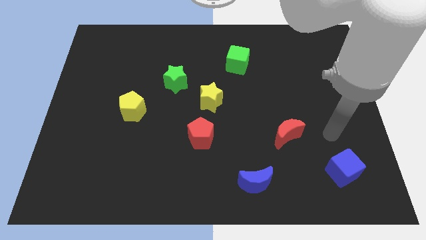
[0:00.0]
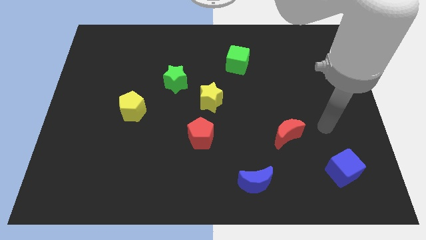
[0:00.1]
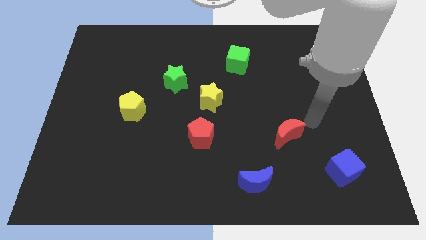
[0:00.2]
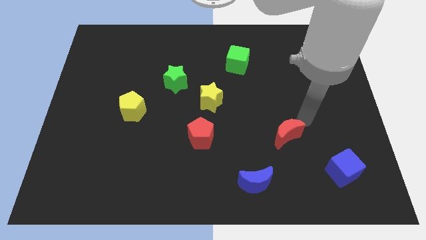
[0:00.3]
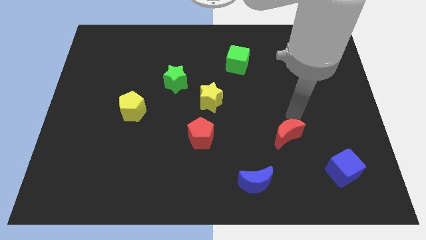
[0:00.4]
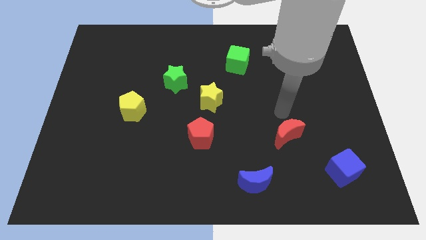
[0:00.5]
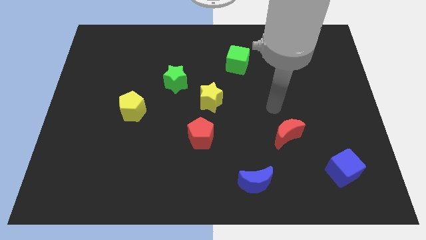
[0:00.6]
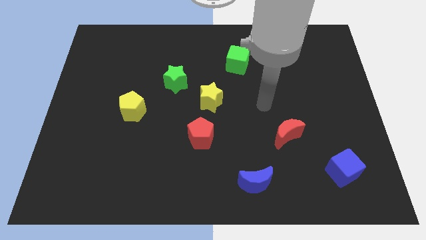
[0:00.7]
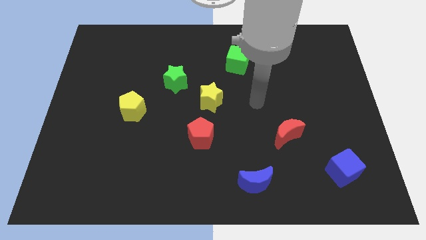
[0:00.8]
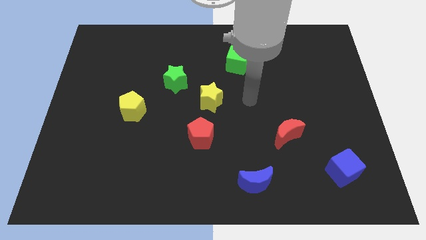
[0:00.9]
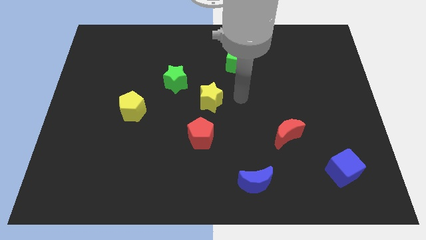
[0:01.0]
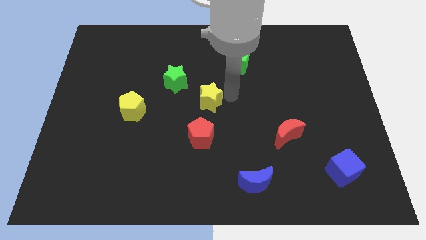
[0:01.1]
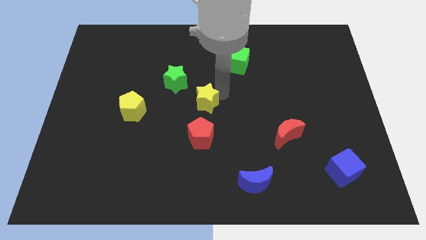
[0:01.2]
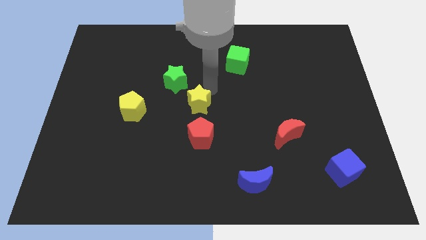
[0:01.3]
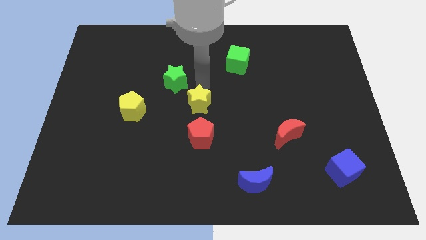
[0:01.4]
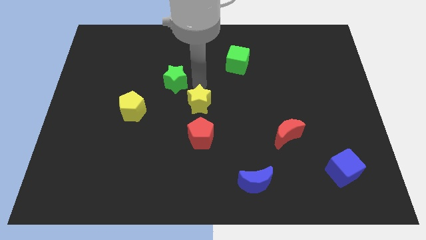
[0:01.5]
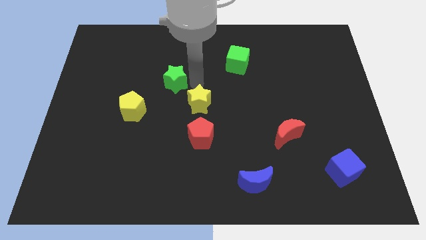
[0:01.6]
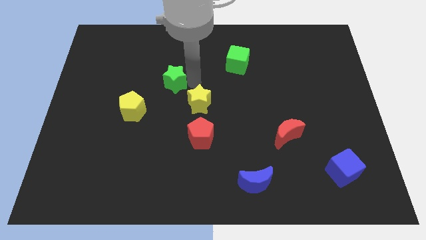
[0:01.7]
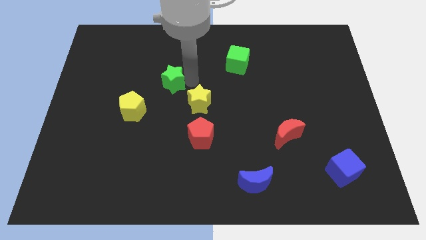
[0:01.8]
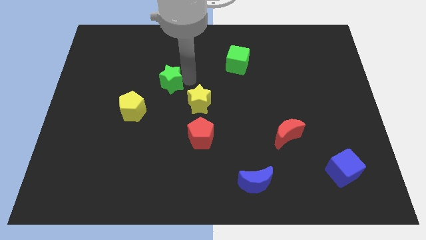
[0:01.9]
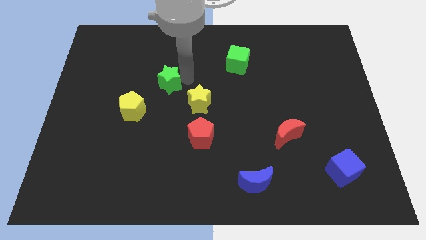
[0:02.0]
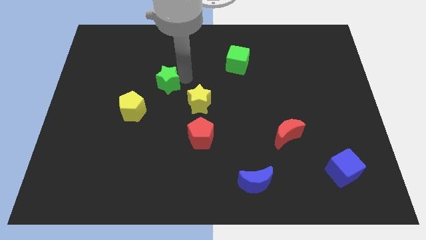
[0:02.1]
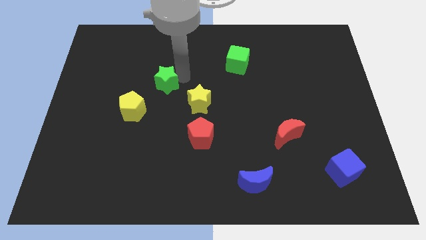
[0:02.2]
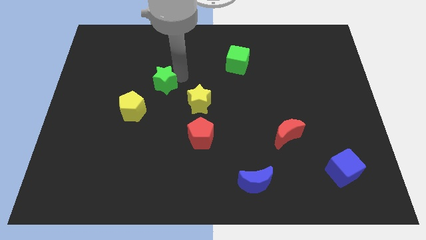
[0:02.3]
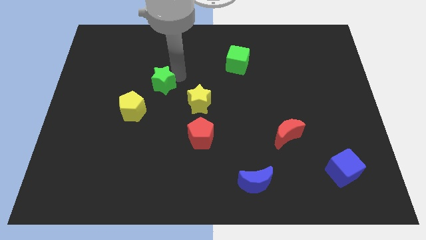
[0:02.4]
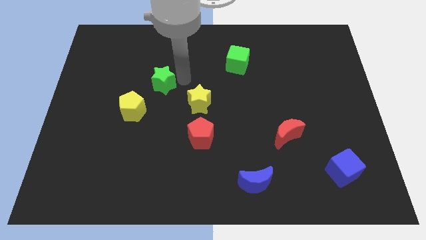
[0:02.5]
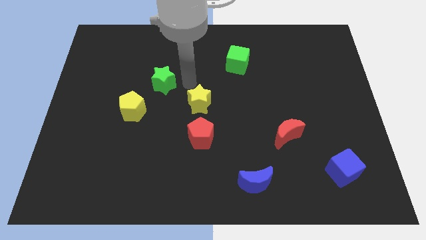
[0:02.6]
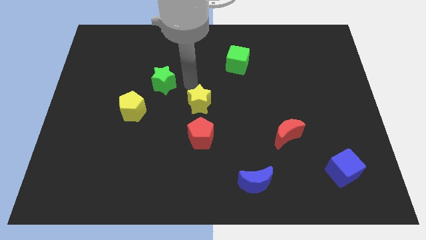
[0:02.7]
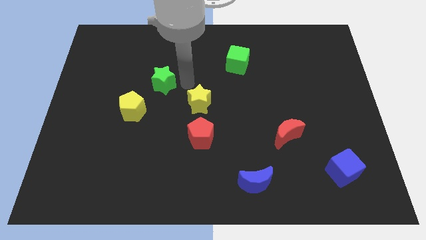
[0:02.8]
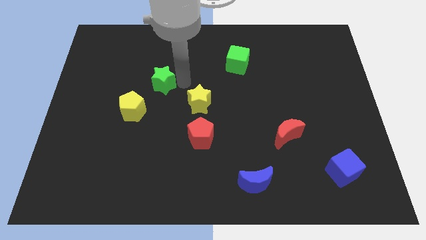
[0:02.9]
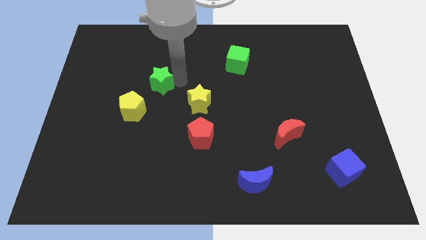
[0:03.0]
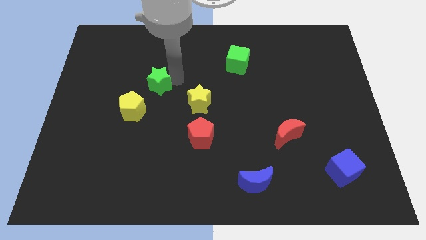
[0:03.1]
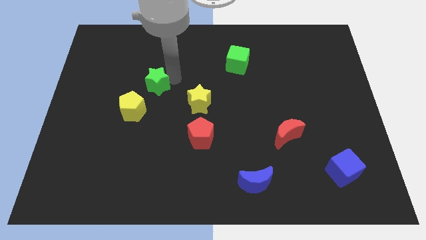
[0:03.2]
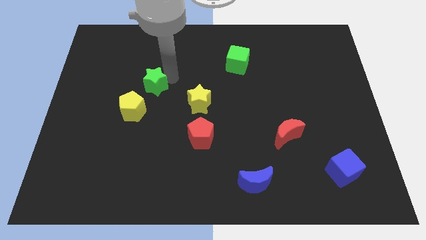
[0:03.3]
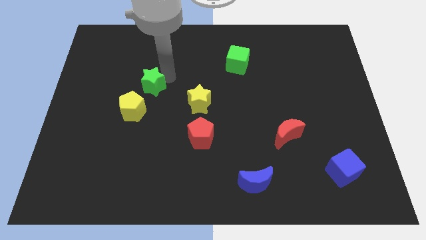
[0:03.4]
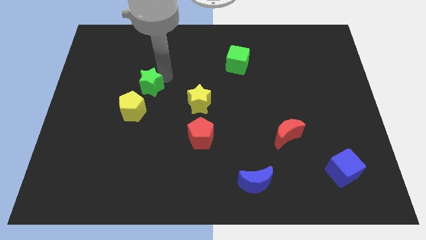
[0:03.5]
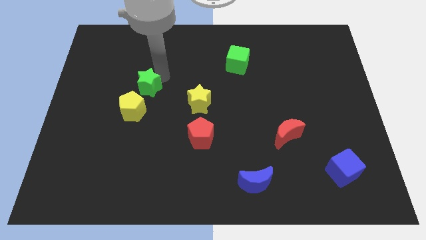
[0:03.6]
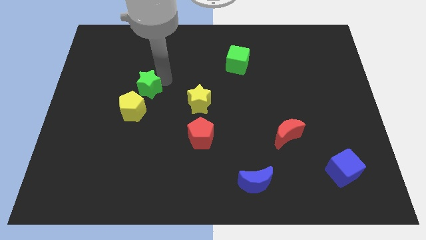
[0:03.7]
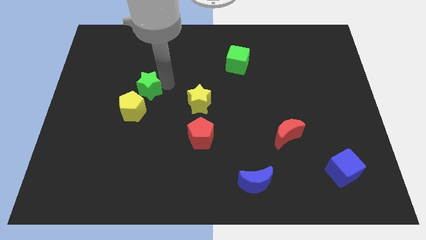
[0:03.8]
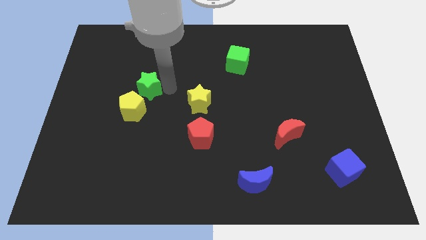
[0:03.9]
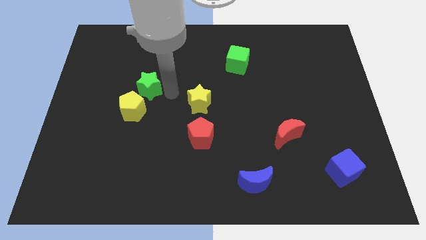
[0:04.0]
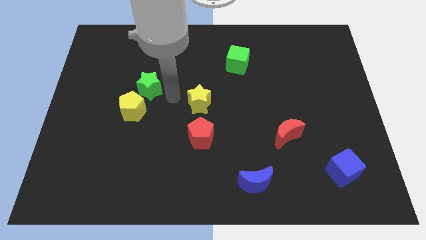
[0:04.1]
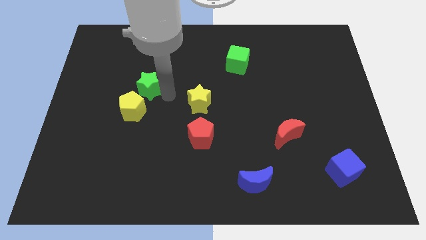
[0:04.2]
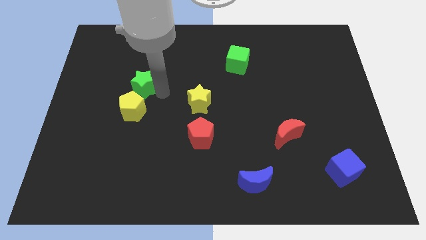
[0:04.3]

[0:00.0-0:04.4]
slide the green star left a little

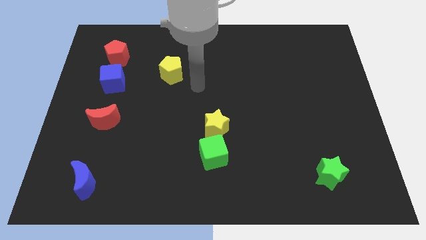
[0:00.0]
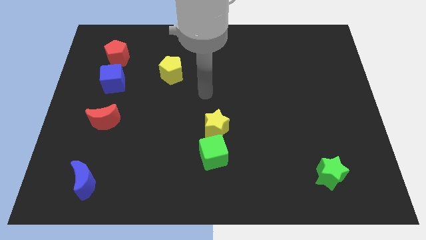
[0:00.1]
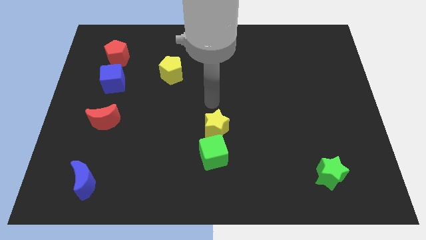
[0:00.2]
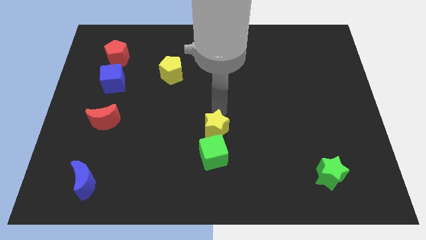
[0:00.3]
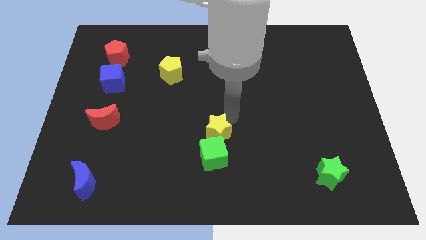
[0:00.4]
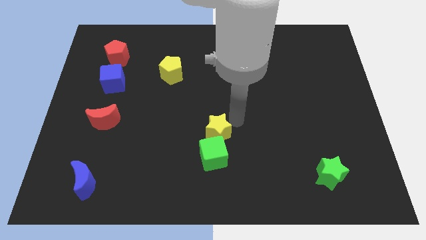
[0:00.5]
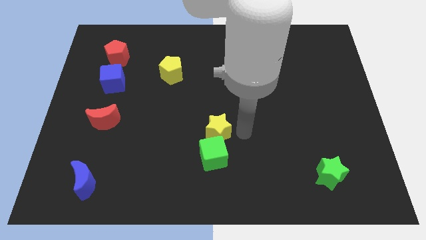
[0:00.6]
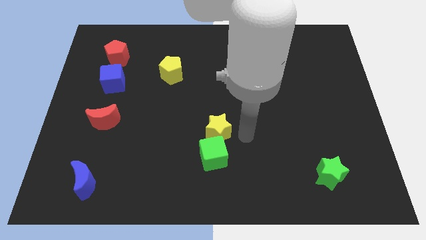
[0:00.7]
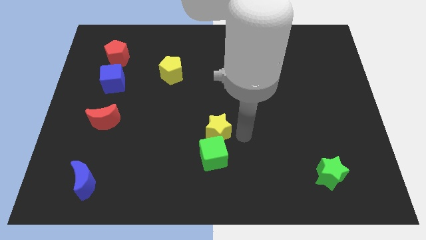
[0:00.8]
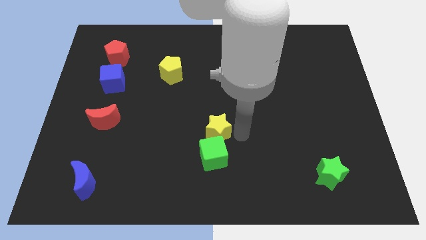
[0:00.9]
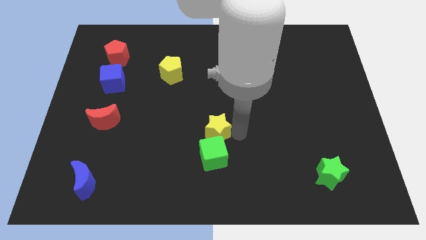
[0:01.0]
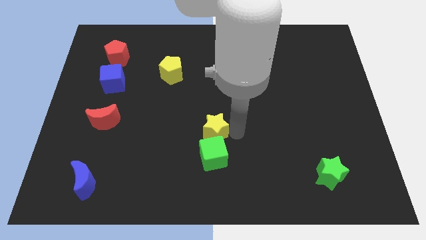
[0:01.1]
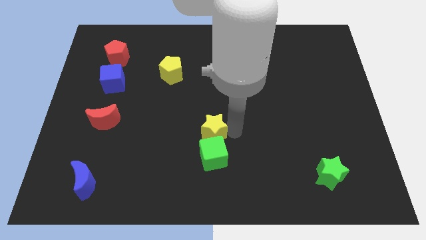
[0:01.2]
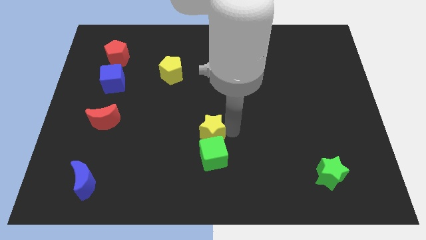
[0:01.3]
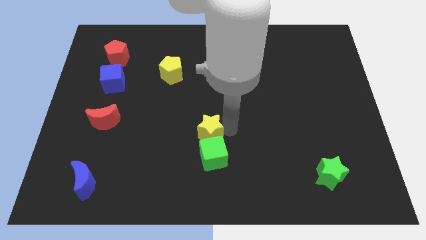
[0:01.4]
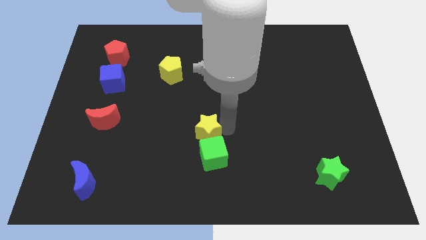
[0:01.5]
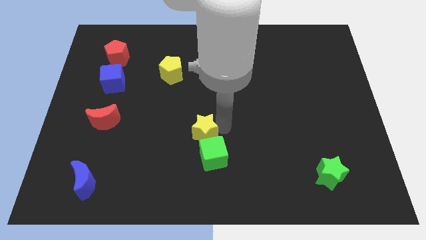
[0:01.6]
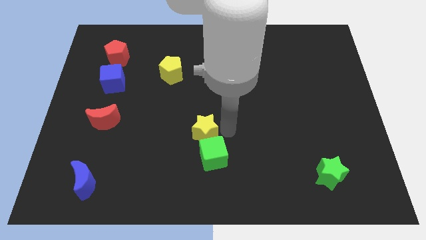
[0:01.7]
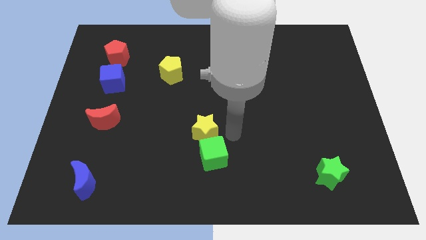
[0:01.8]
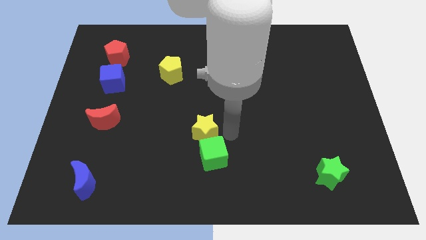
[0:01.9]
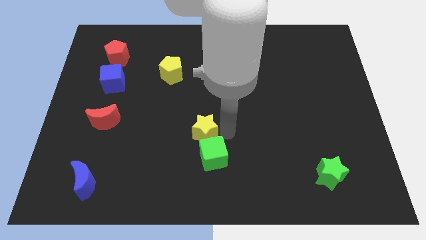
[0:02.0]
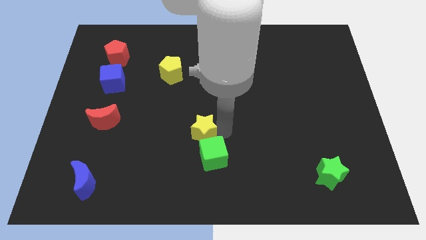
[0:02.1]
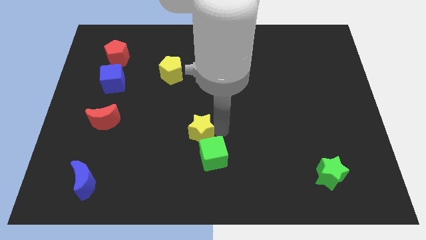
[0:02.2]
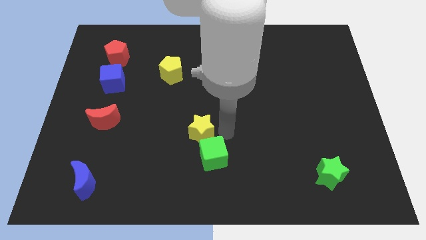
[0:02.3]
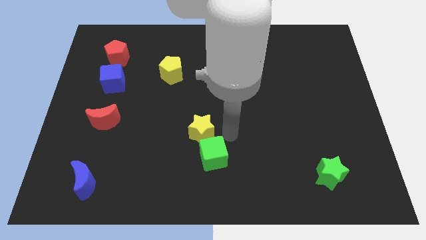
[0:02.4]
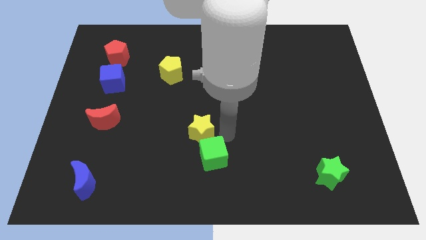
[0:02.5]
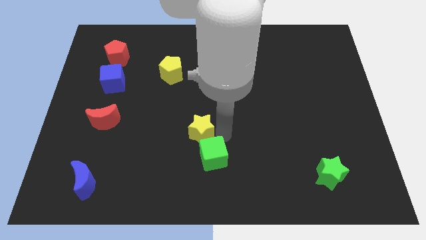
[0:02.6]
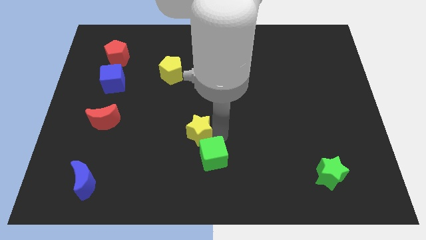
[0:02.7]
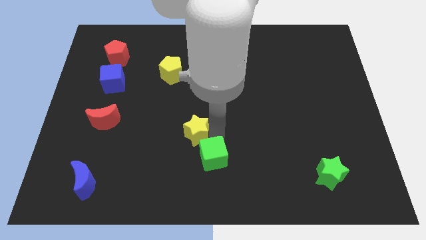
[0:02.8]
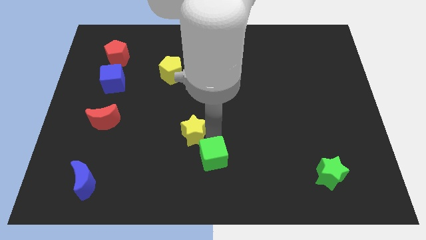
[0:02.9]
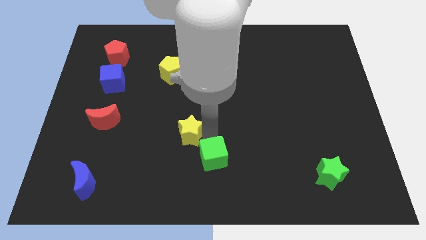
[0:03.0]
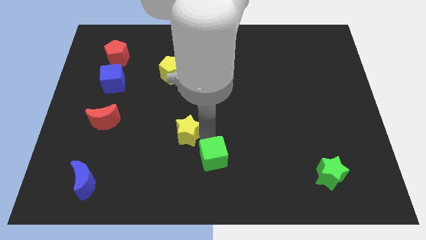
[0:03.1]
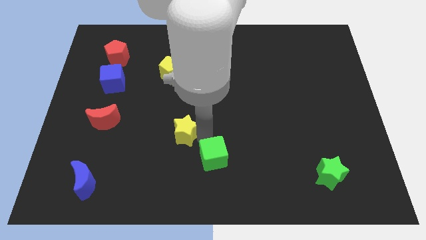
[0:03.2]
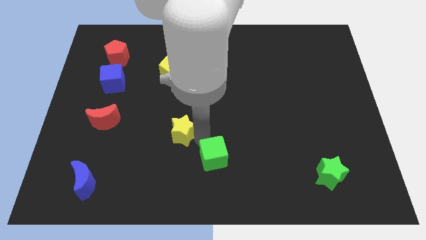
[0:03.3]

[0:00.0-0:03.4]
push the yellow star somewhat left

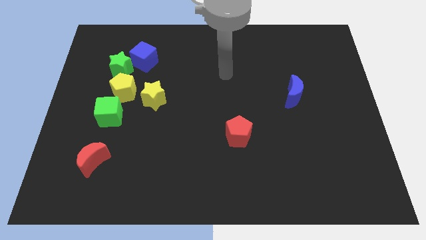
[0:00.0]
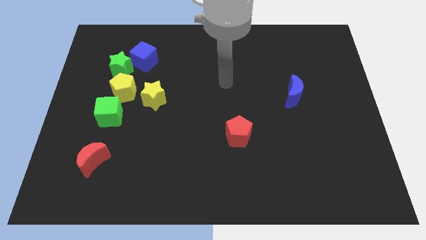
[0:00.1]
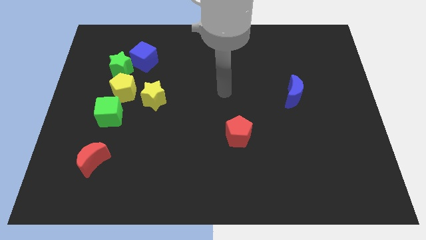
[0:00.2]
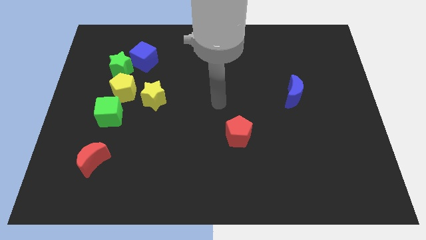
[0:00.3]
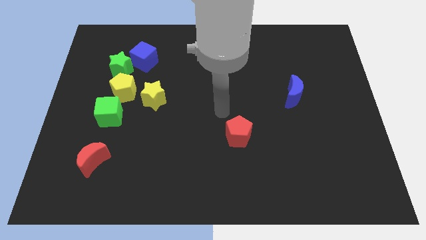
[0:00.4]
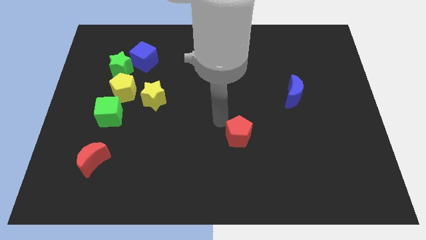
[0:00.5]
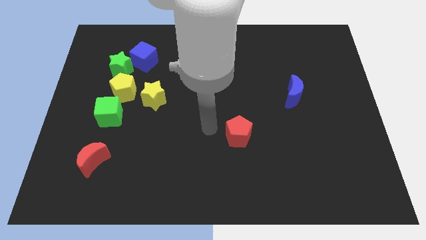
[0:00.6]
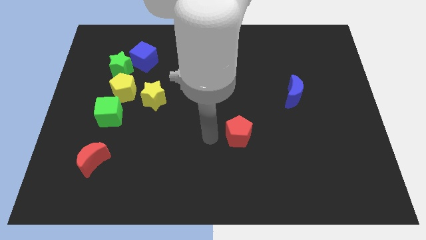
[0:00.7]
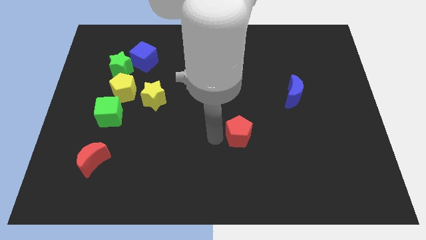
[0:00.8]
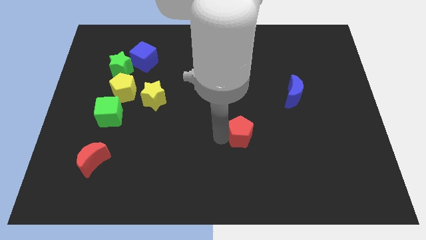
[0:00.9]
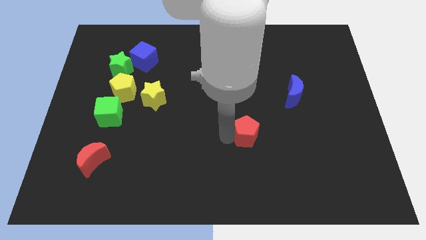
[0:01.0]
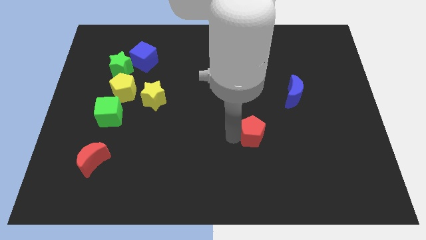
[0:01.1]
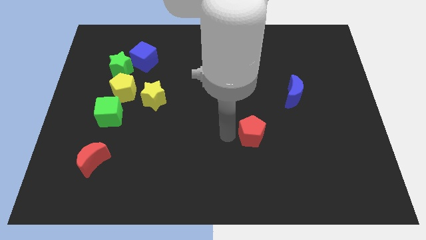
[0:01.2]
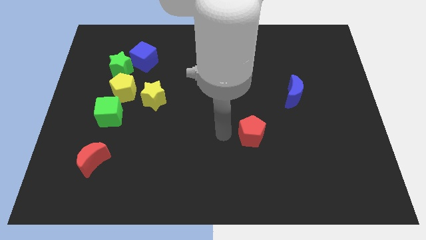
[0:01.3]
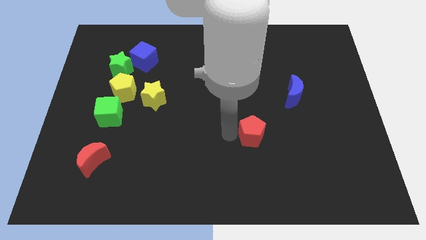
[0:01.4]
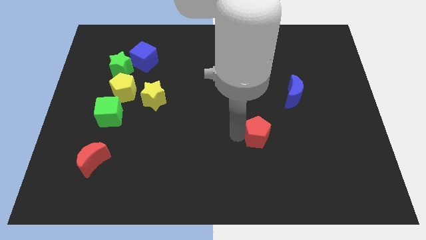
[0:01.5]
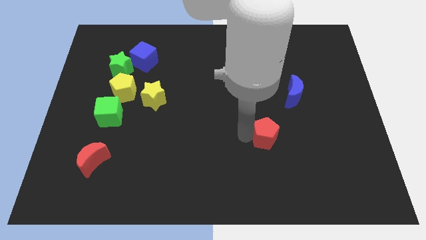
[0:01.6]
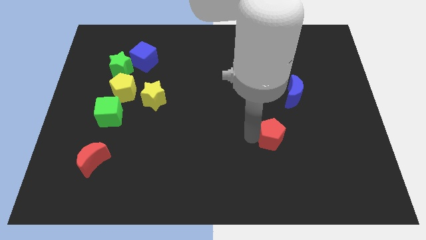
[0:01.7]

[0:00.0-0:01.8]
move the red pentagon a little right
